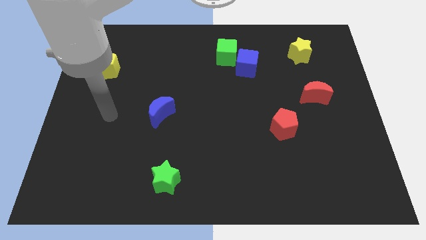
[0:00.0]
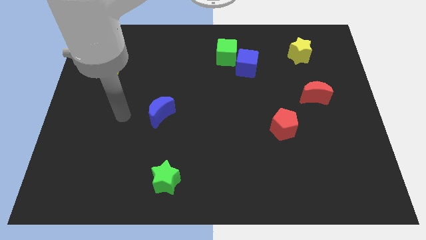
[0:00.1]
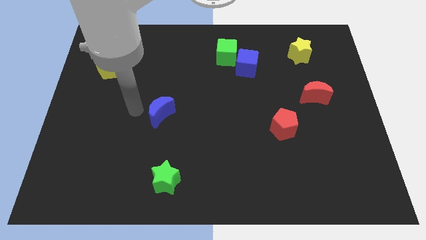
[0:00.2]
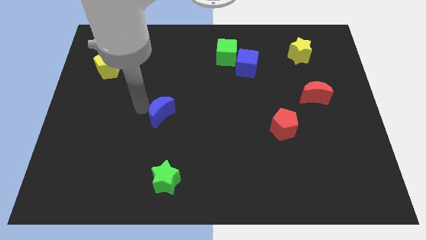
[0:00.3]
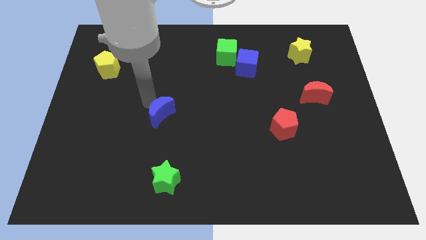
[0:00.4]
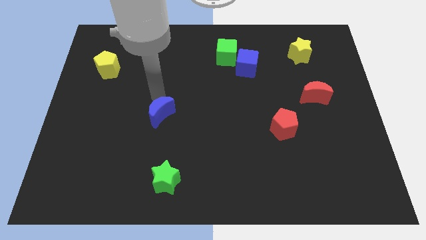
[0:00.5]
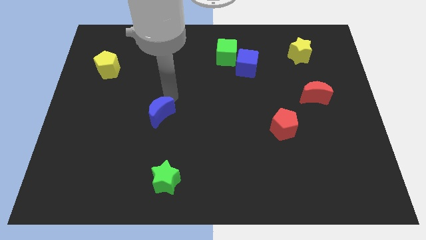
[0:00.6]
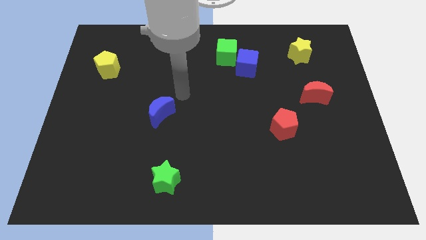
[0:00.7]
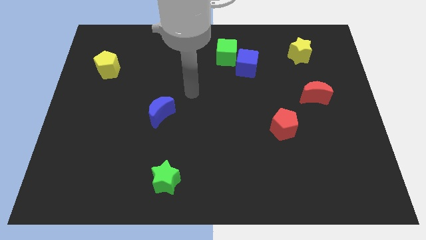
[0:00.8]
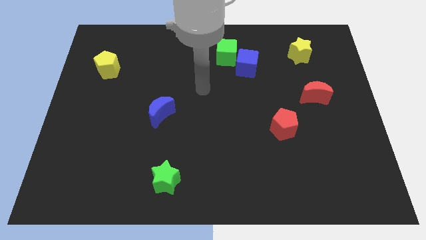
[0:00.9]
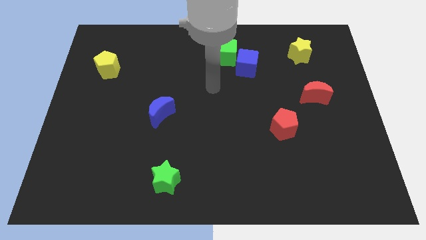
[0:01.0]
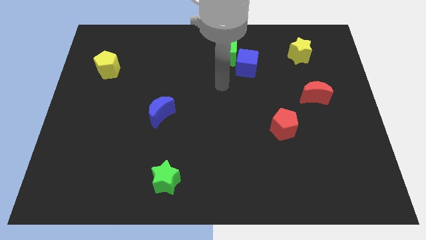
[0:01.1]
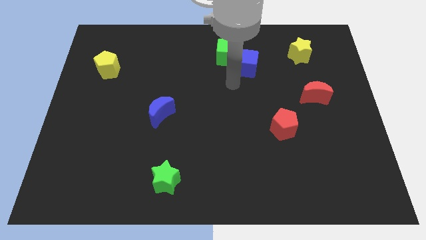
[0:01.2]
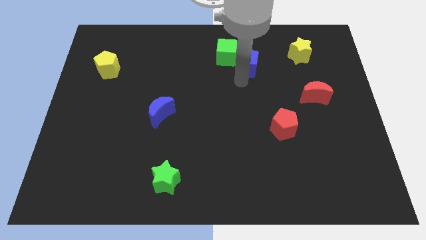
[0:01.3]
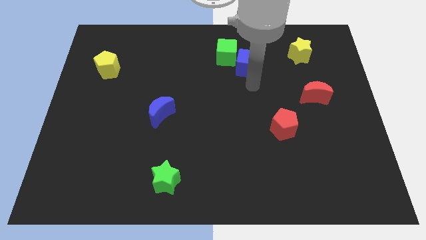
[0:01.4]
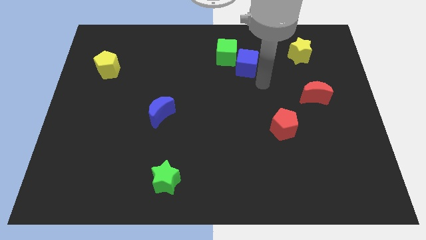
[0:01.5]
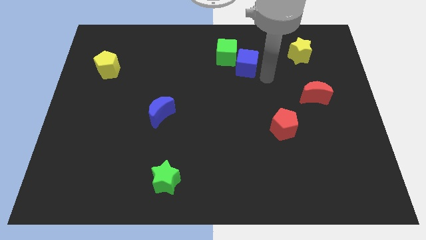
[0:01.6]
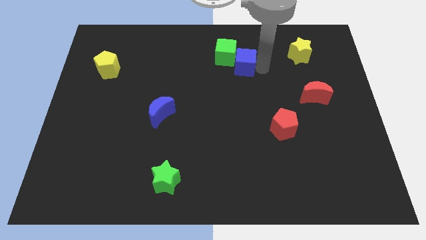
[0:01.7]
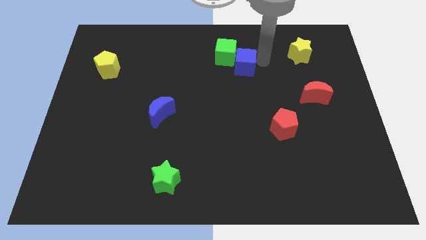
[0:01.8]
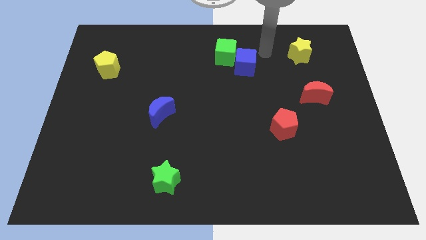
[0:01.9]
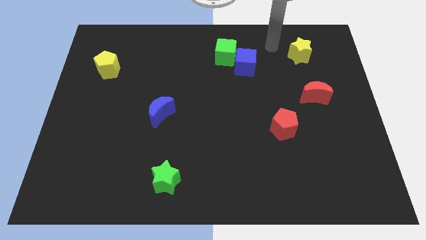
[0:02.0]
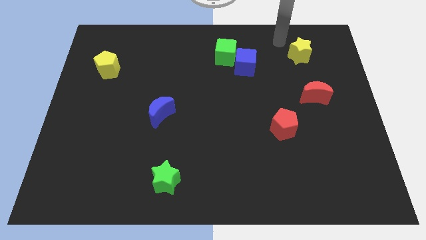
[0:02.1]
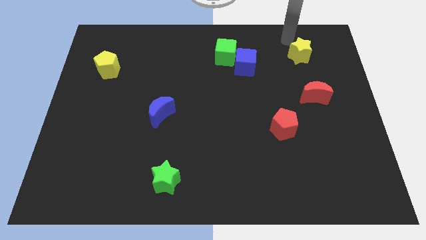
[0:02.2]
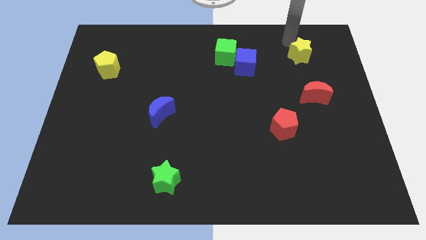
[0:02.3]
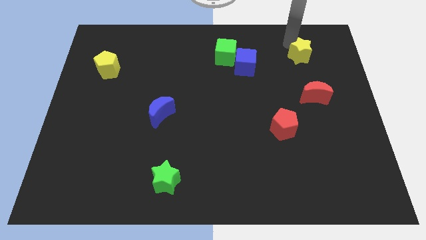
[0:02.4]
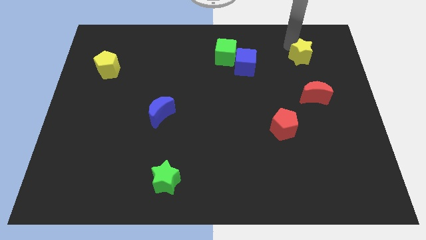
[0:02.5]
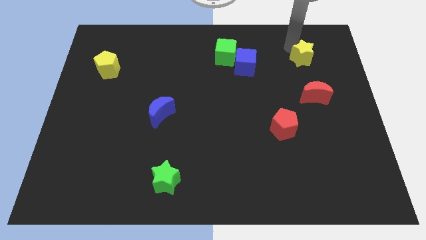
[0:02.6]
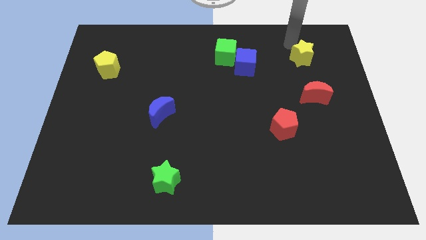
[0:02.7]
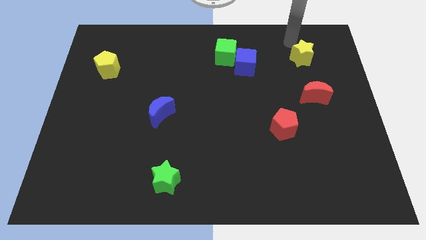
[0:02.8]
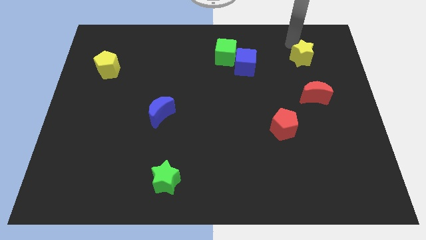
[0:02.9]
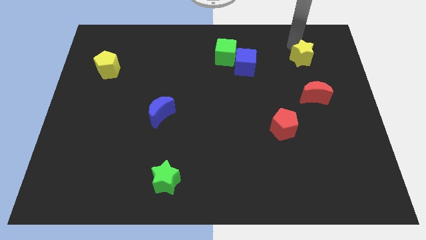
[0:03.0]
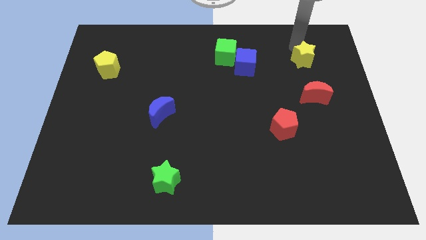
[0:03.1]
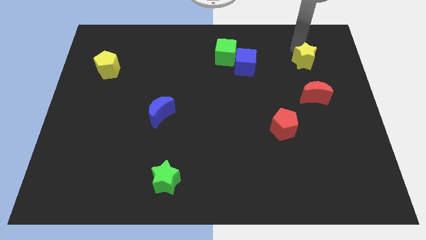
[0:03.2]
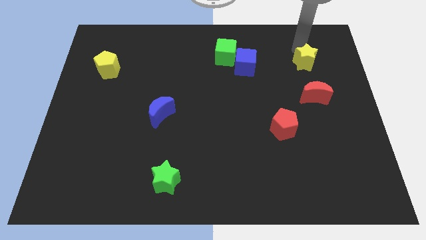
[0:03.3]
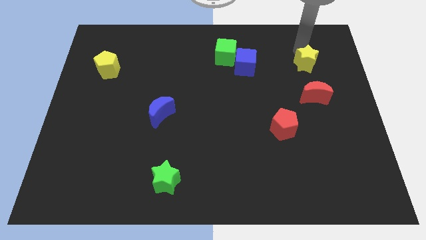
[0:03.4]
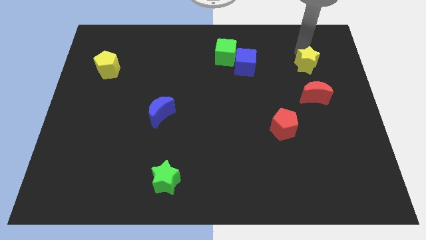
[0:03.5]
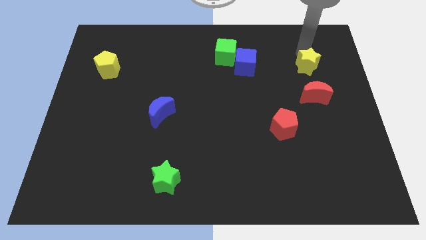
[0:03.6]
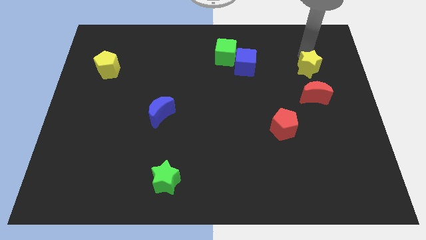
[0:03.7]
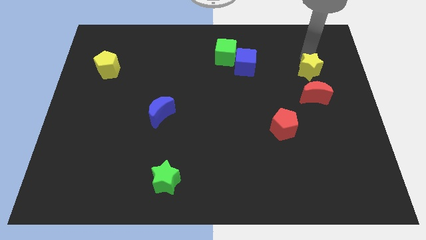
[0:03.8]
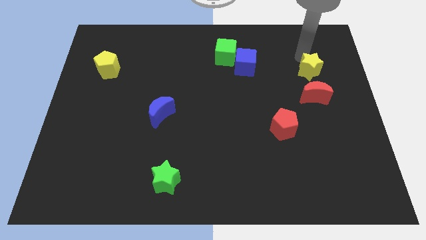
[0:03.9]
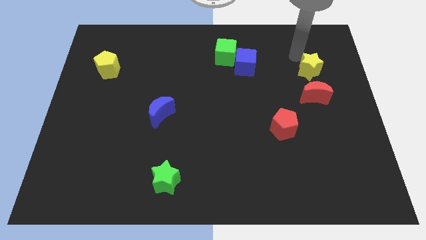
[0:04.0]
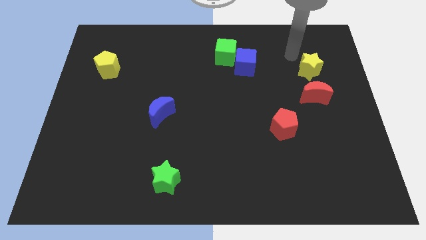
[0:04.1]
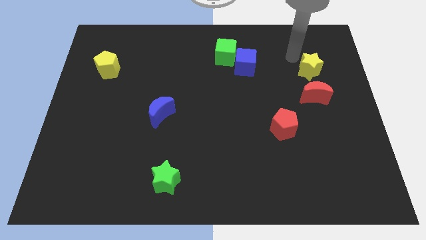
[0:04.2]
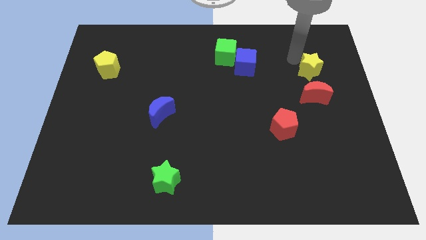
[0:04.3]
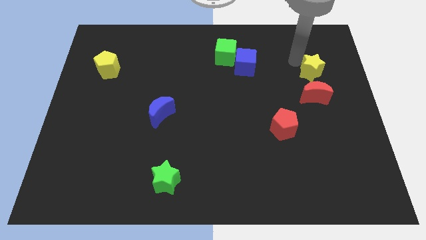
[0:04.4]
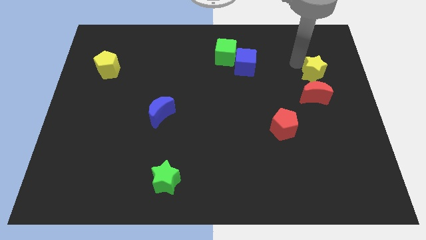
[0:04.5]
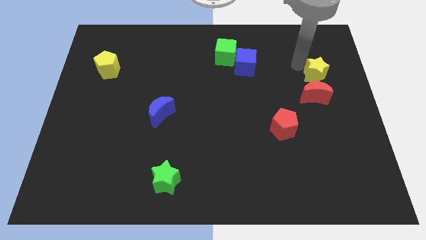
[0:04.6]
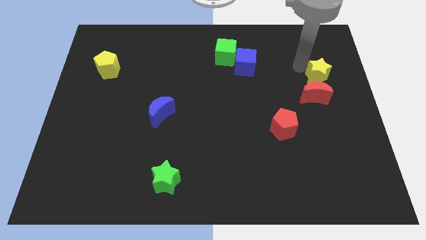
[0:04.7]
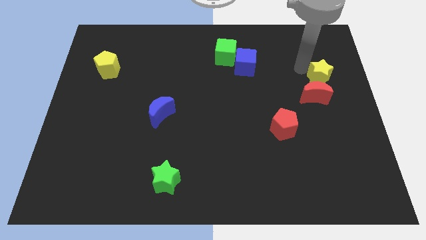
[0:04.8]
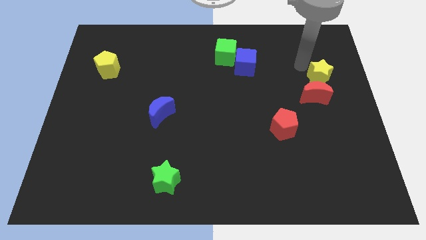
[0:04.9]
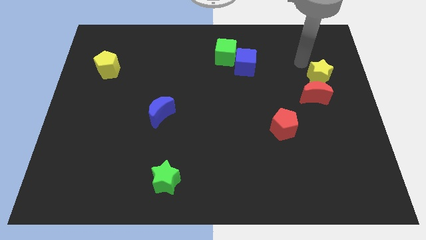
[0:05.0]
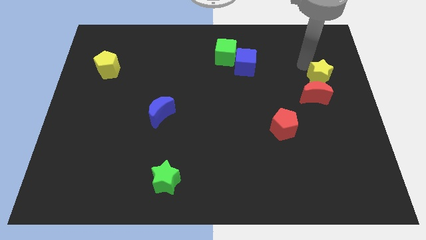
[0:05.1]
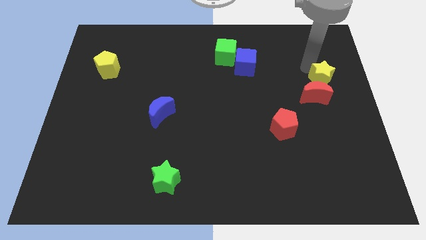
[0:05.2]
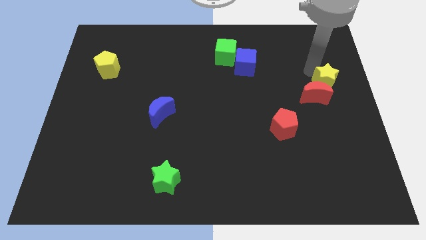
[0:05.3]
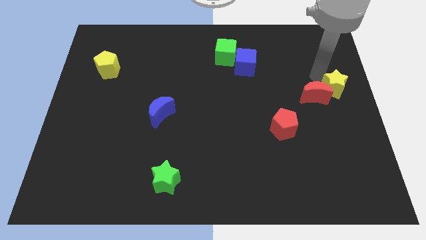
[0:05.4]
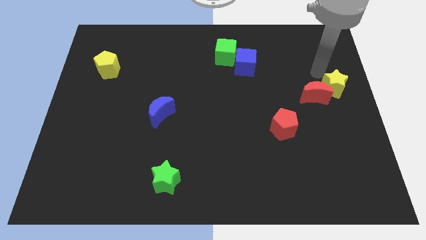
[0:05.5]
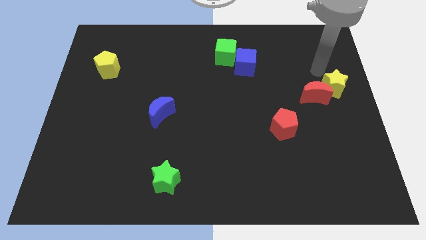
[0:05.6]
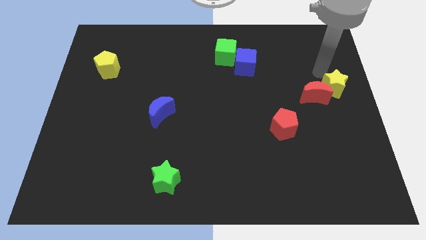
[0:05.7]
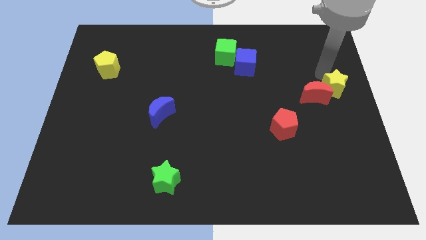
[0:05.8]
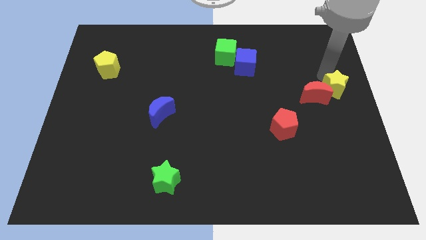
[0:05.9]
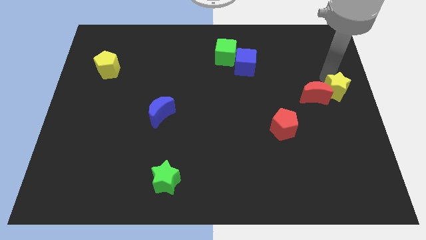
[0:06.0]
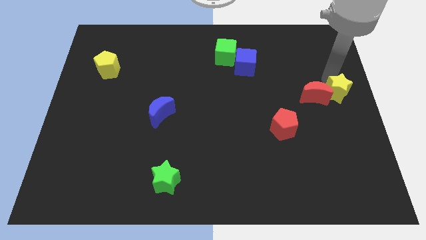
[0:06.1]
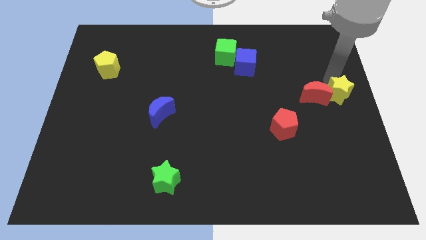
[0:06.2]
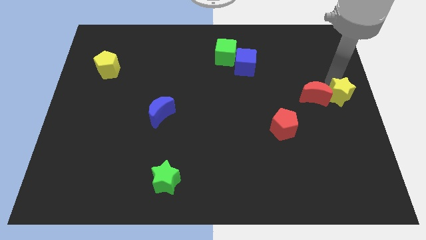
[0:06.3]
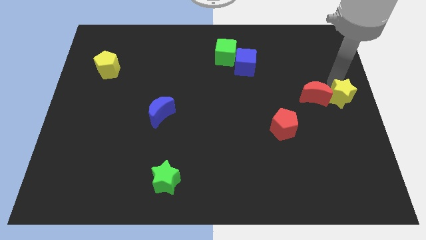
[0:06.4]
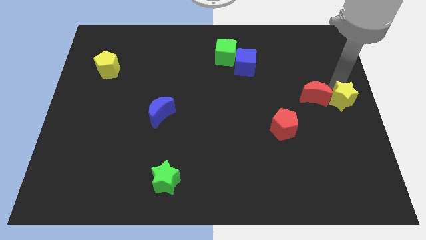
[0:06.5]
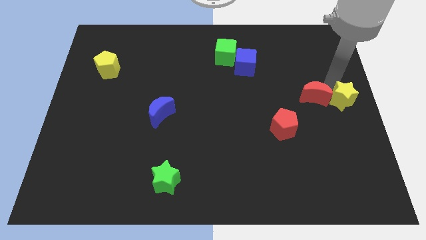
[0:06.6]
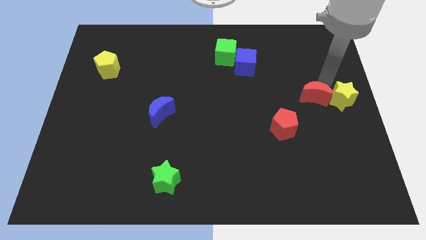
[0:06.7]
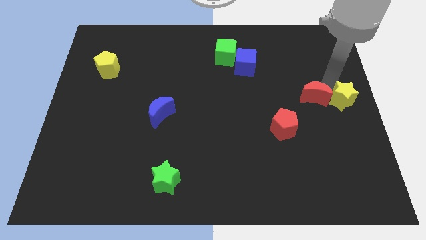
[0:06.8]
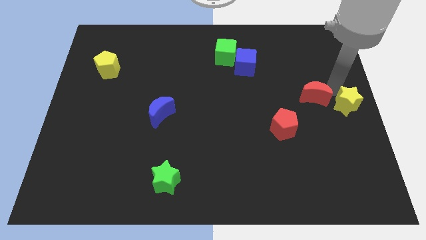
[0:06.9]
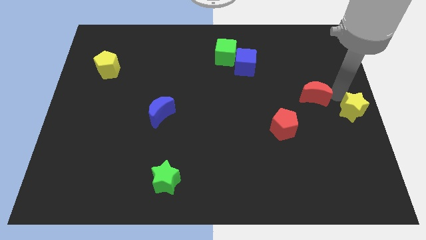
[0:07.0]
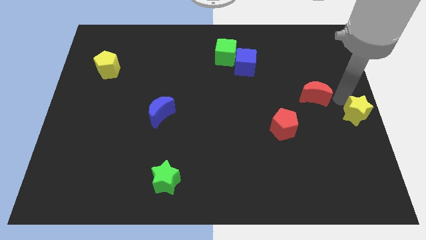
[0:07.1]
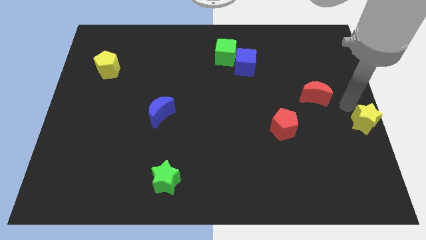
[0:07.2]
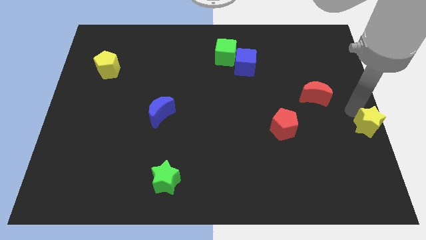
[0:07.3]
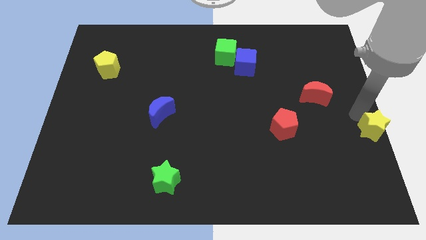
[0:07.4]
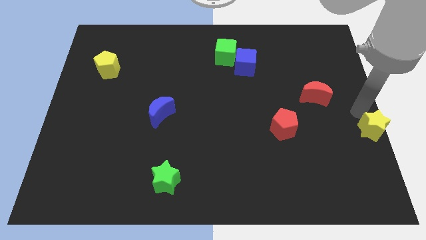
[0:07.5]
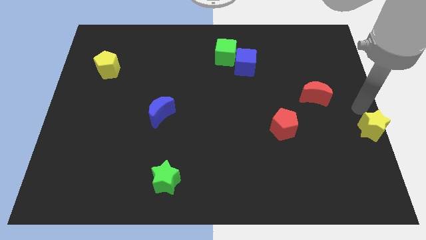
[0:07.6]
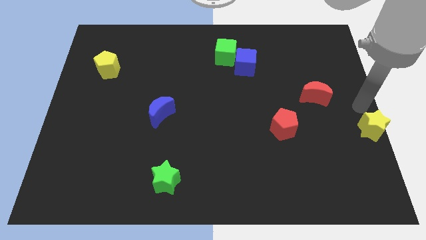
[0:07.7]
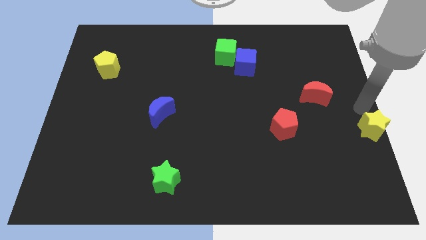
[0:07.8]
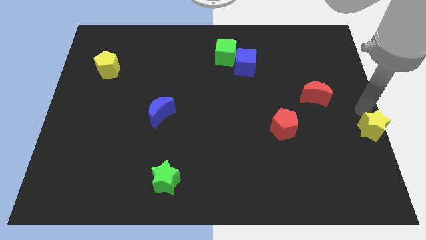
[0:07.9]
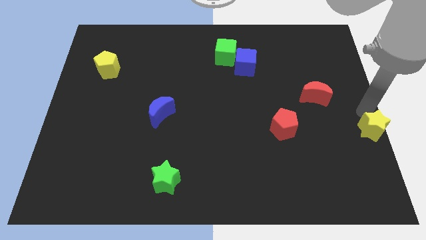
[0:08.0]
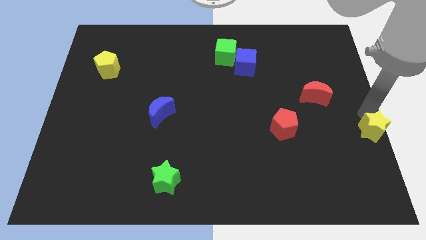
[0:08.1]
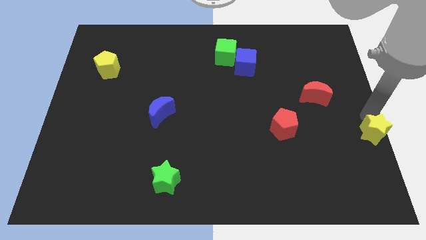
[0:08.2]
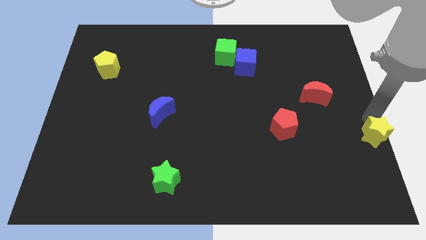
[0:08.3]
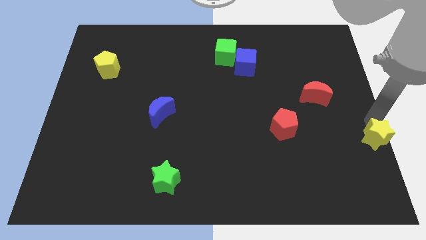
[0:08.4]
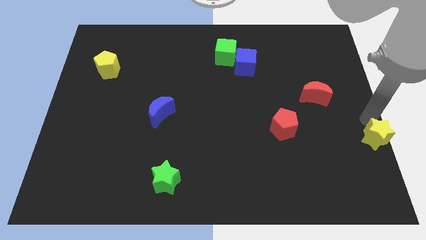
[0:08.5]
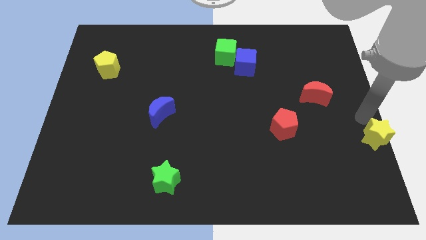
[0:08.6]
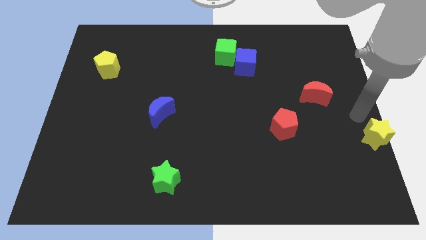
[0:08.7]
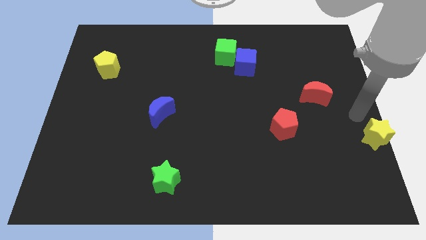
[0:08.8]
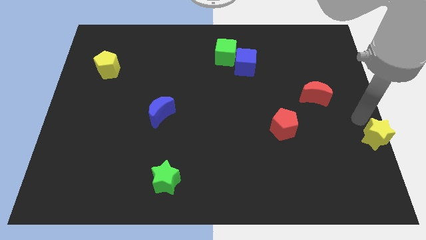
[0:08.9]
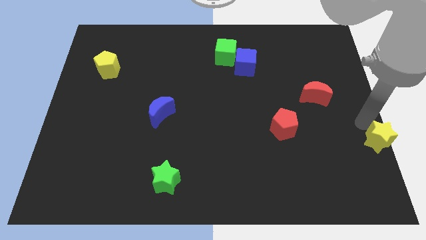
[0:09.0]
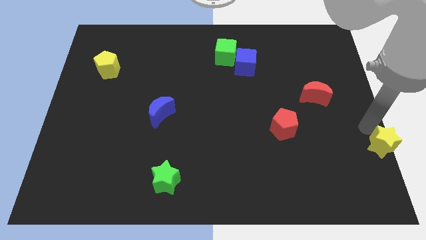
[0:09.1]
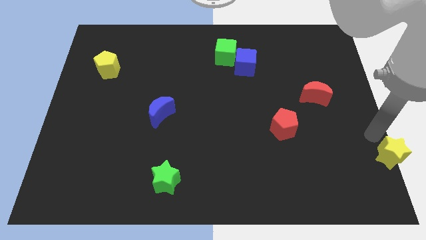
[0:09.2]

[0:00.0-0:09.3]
push the yellow star to the bottom right of the board
